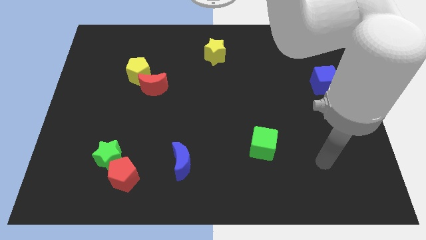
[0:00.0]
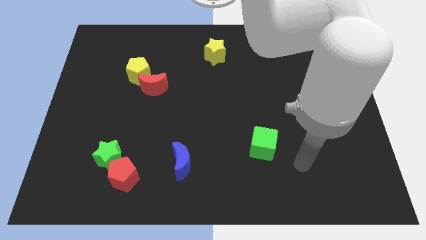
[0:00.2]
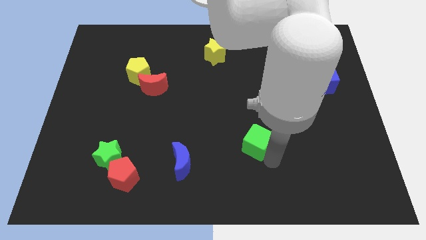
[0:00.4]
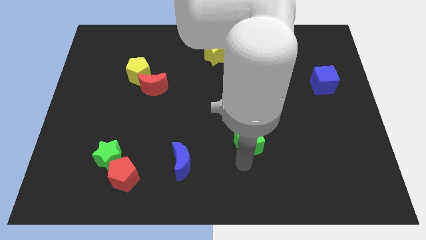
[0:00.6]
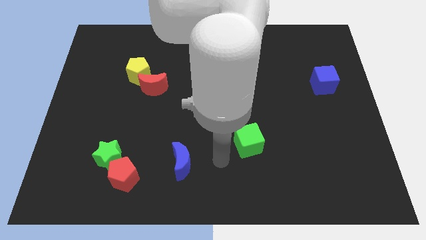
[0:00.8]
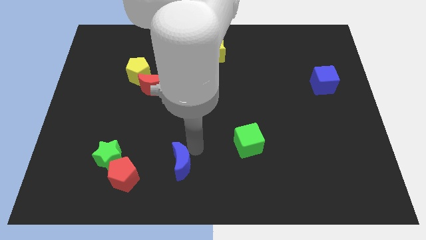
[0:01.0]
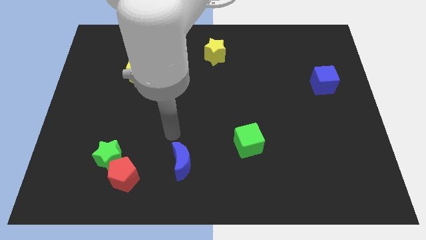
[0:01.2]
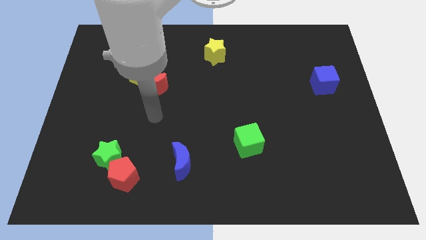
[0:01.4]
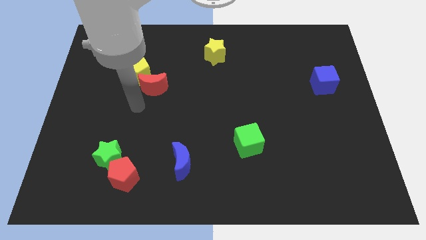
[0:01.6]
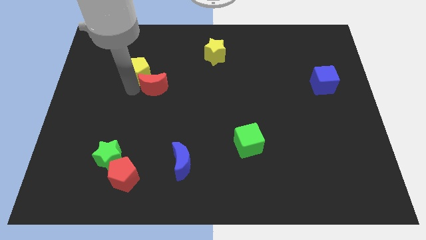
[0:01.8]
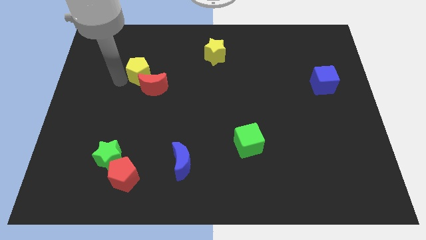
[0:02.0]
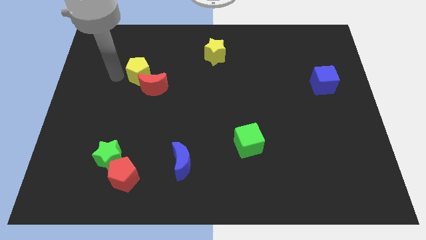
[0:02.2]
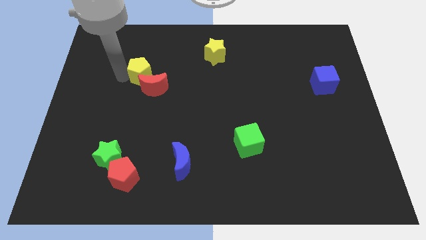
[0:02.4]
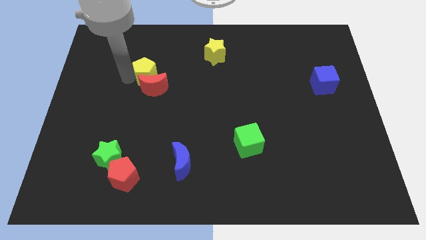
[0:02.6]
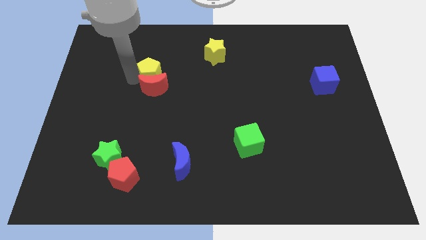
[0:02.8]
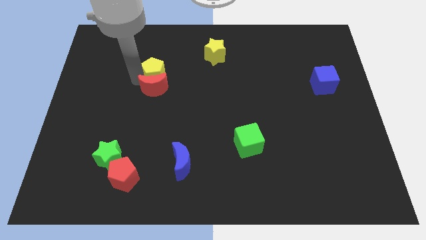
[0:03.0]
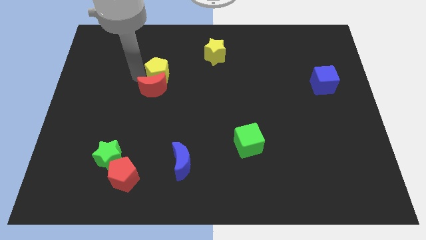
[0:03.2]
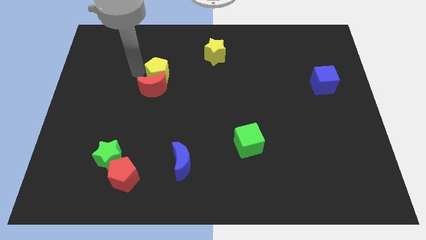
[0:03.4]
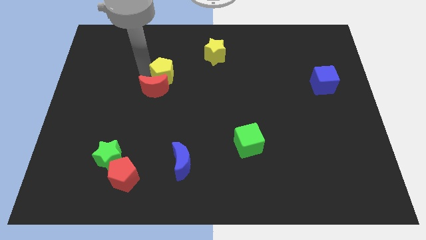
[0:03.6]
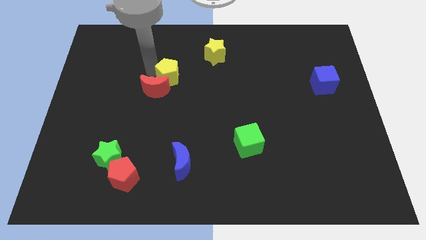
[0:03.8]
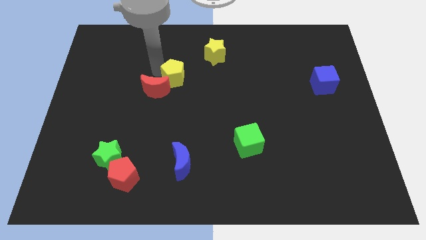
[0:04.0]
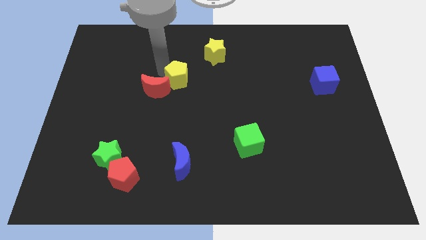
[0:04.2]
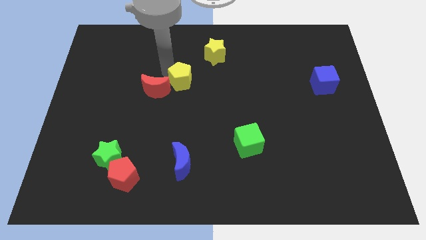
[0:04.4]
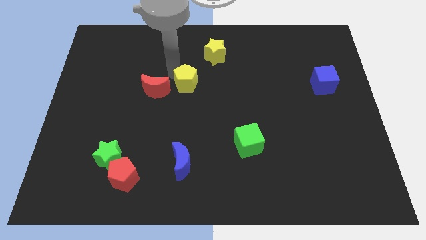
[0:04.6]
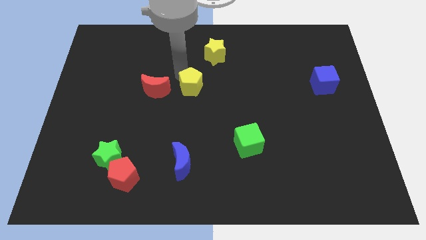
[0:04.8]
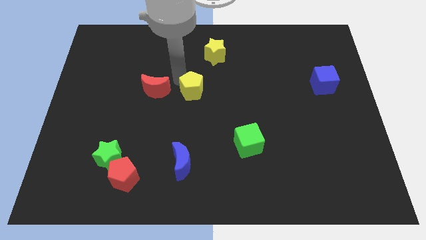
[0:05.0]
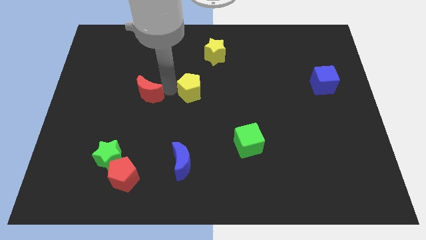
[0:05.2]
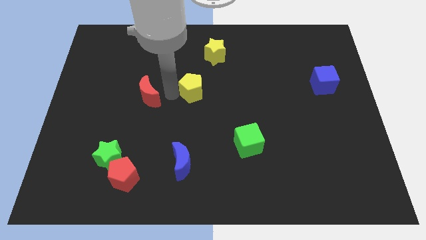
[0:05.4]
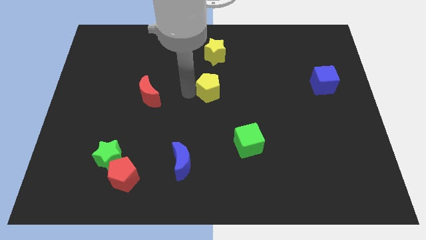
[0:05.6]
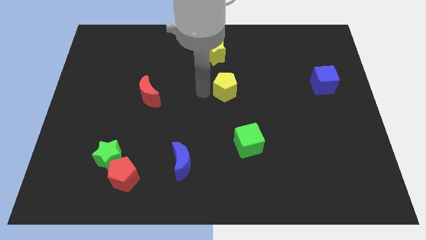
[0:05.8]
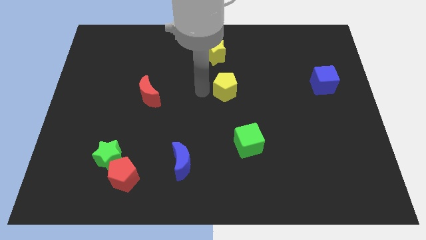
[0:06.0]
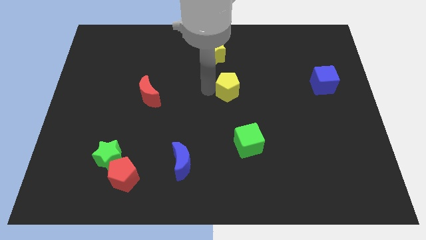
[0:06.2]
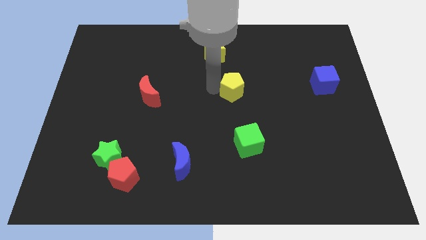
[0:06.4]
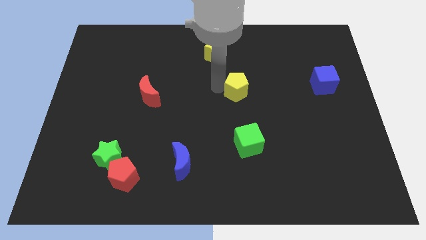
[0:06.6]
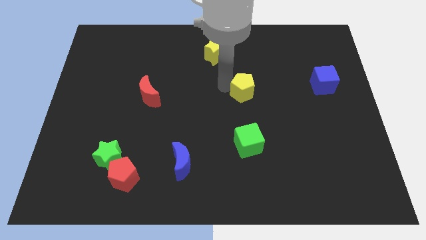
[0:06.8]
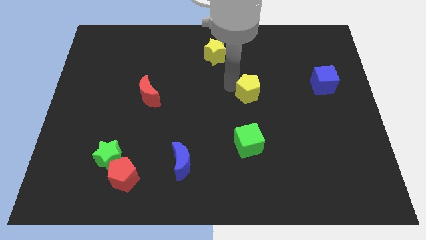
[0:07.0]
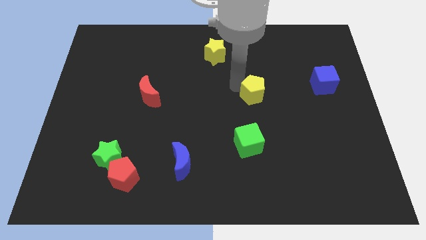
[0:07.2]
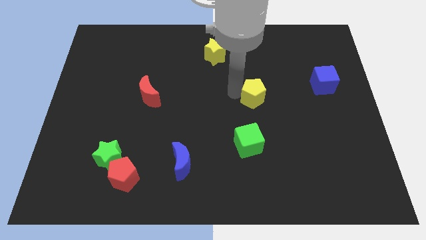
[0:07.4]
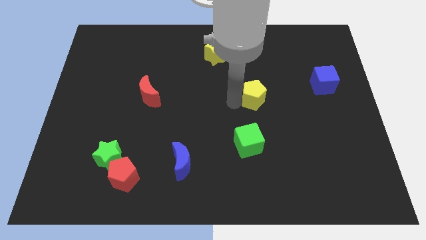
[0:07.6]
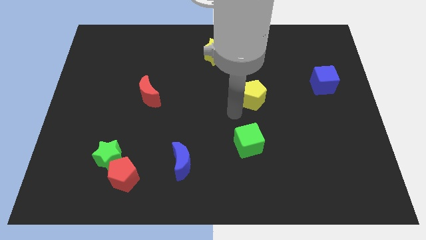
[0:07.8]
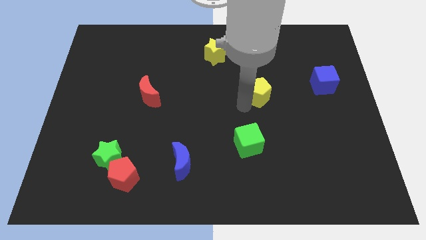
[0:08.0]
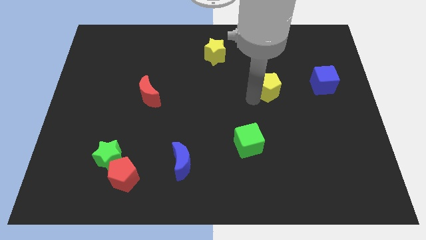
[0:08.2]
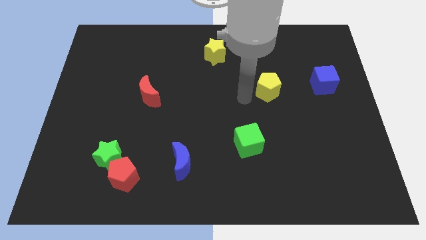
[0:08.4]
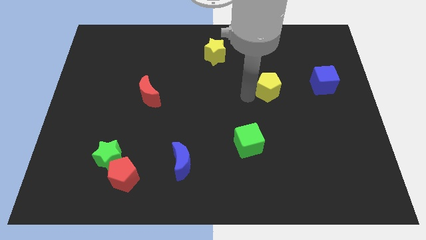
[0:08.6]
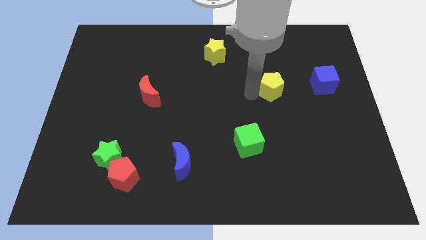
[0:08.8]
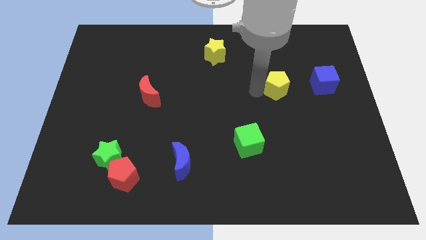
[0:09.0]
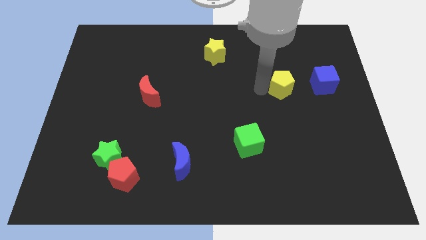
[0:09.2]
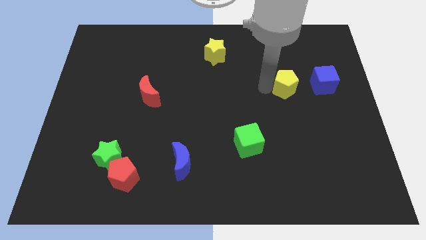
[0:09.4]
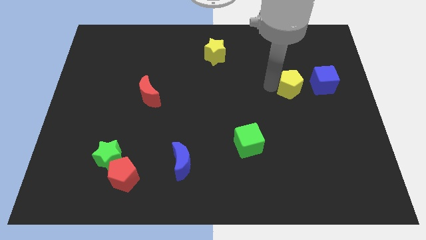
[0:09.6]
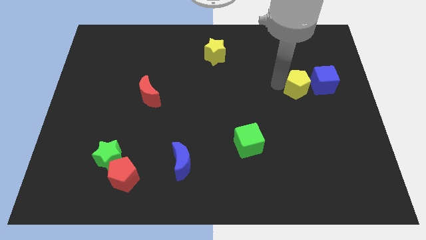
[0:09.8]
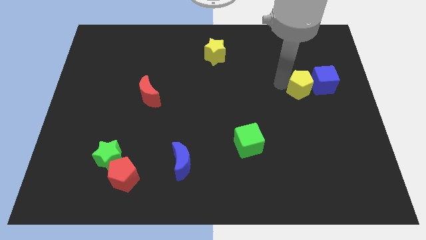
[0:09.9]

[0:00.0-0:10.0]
put the yellow pentagon close to the blue cube

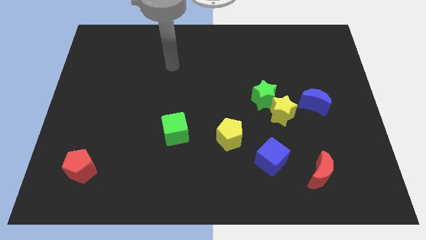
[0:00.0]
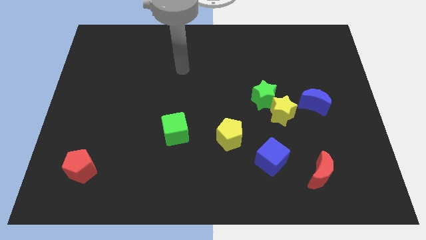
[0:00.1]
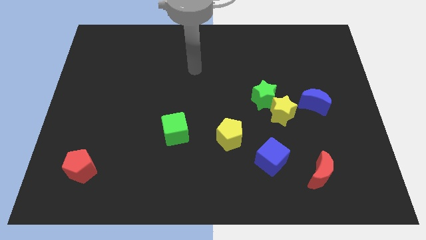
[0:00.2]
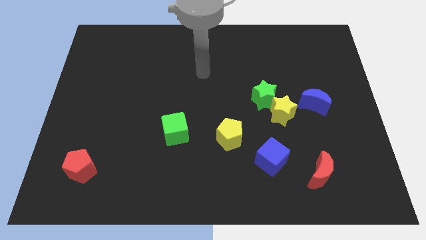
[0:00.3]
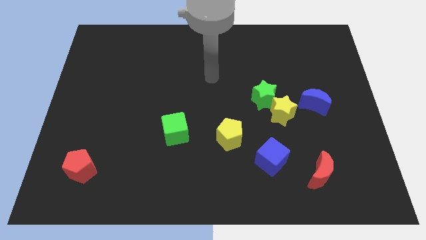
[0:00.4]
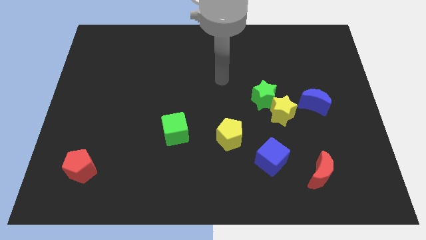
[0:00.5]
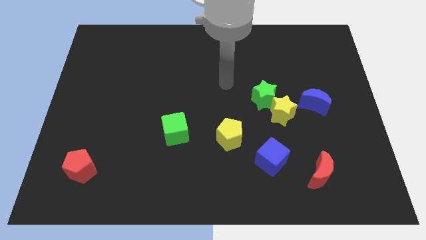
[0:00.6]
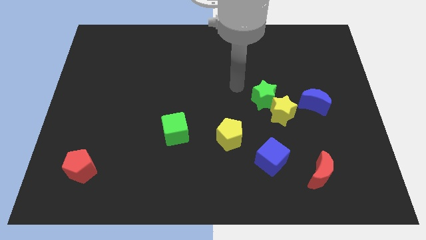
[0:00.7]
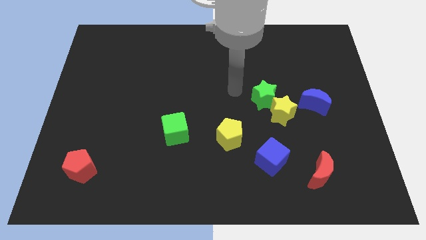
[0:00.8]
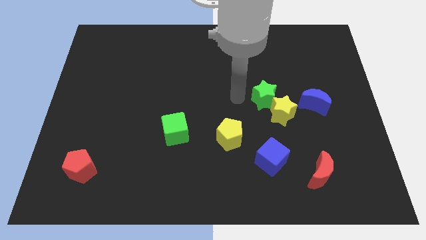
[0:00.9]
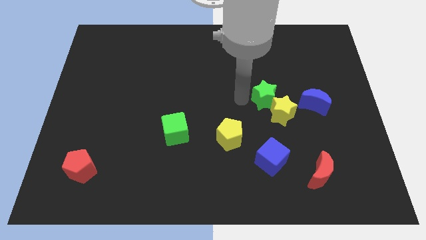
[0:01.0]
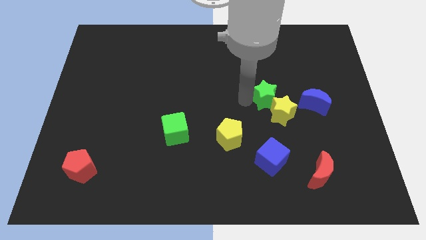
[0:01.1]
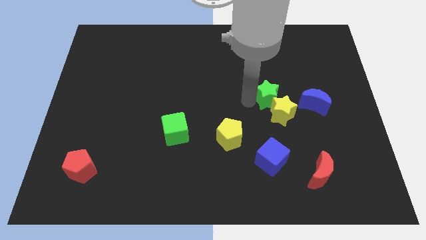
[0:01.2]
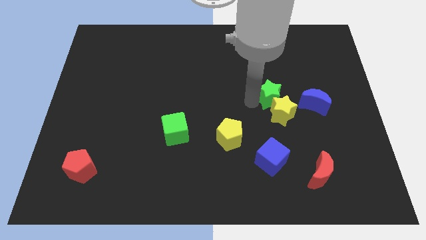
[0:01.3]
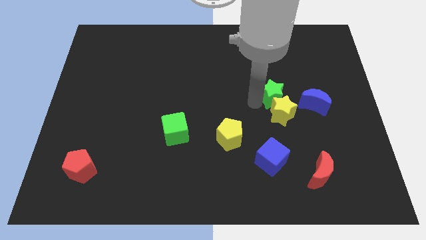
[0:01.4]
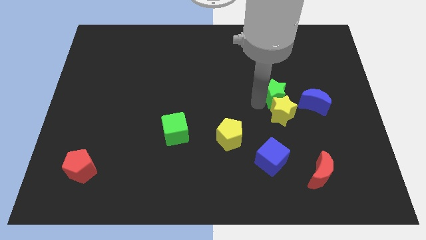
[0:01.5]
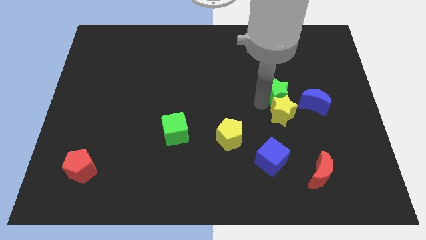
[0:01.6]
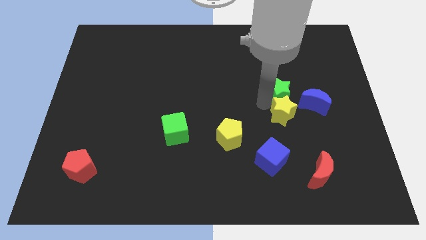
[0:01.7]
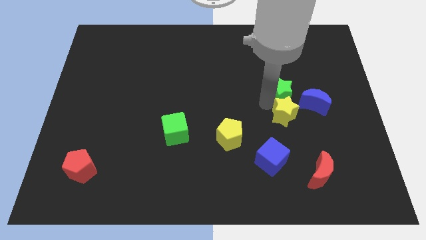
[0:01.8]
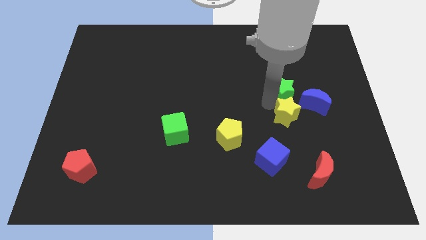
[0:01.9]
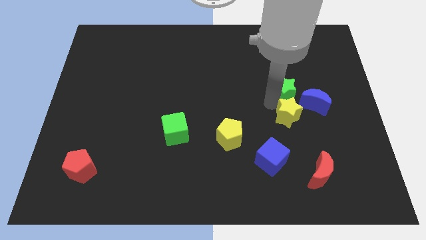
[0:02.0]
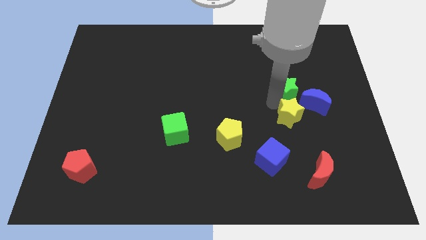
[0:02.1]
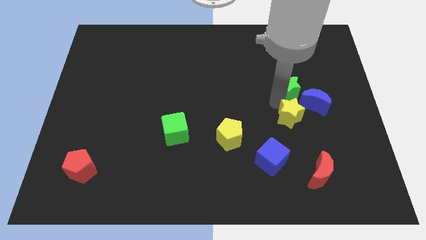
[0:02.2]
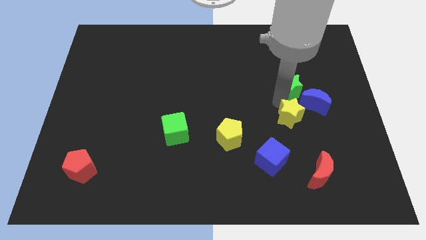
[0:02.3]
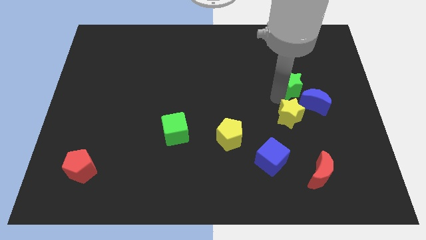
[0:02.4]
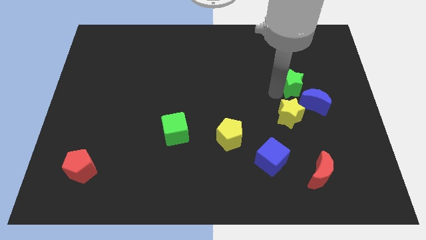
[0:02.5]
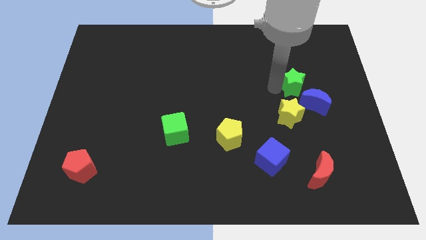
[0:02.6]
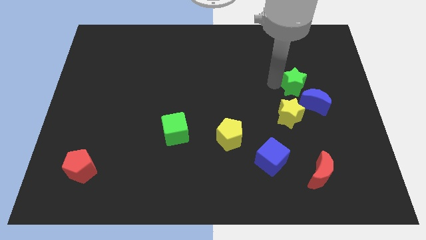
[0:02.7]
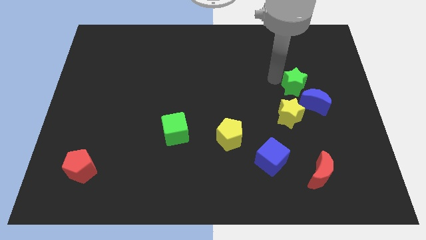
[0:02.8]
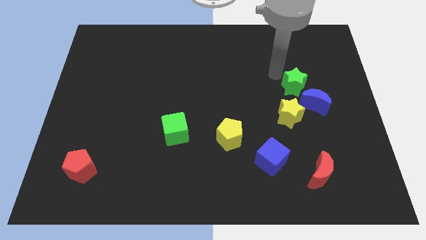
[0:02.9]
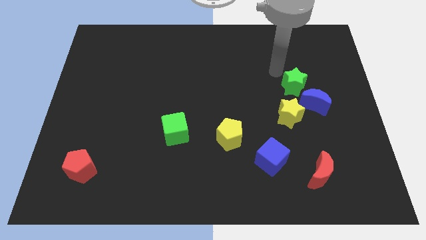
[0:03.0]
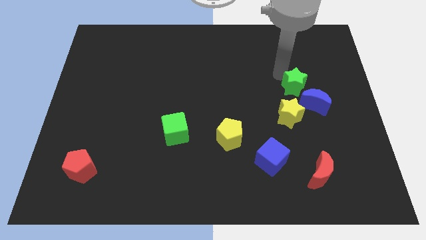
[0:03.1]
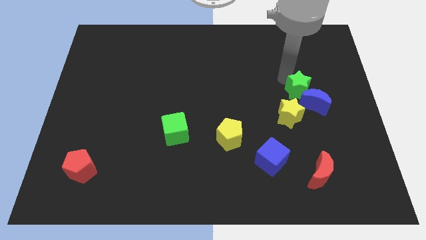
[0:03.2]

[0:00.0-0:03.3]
put the green star towards the blue moon
